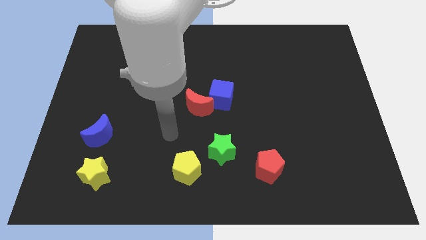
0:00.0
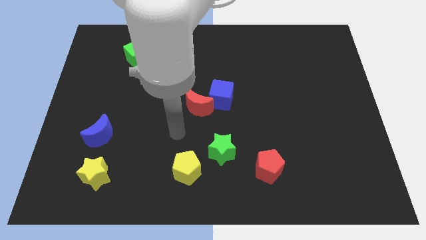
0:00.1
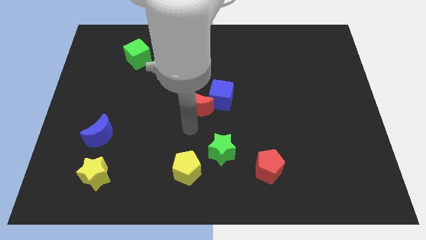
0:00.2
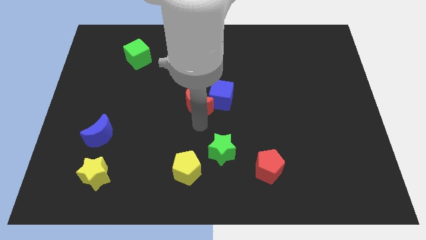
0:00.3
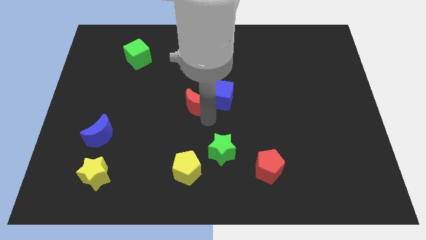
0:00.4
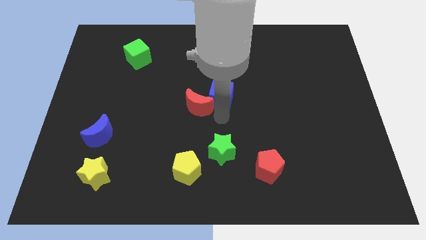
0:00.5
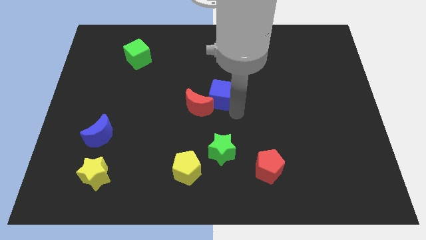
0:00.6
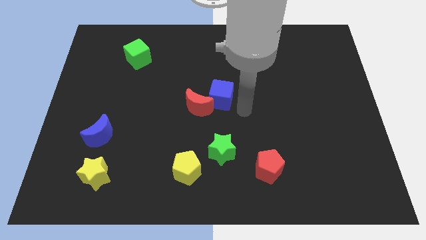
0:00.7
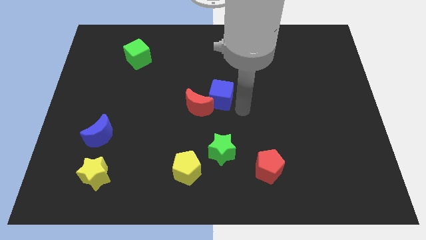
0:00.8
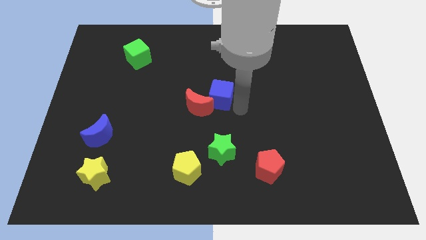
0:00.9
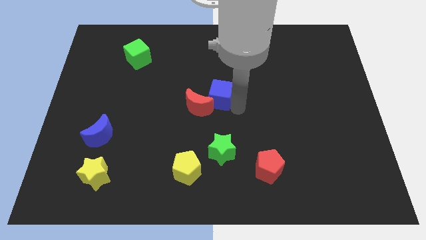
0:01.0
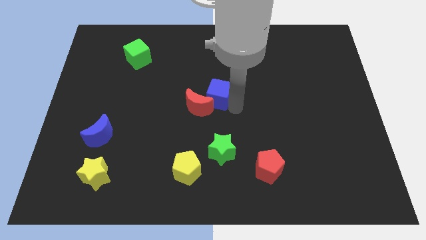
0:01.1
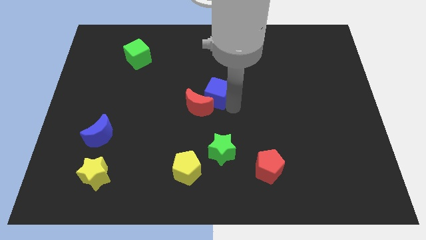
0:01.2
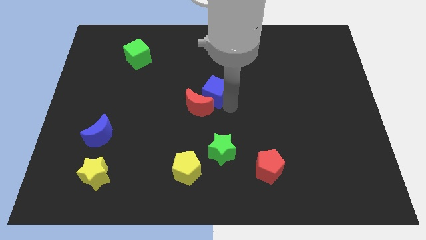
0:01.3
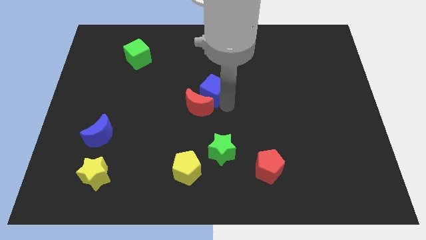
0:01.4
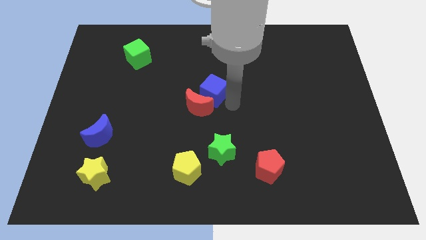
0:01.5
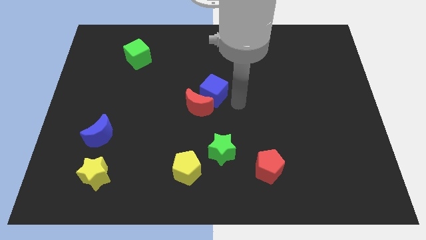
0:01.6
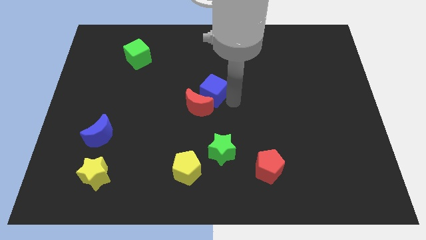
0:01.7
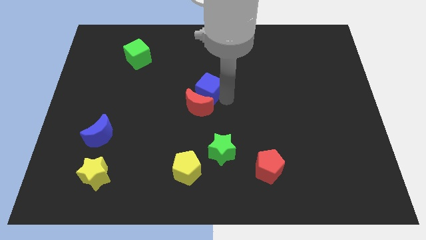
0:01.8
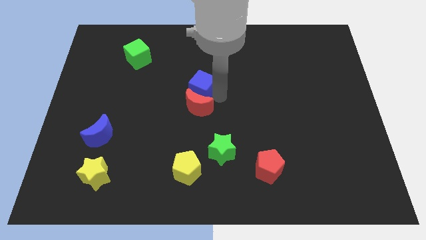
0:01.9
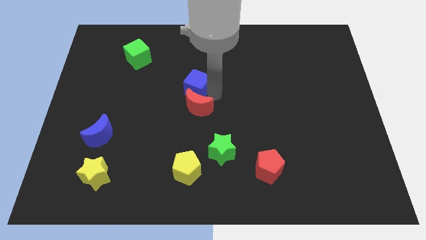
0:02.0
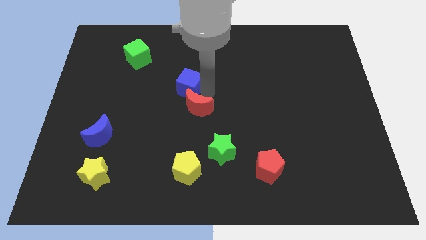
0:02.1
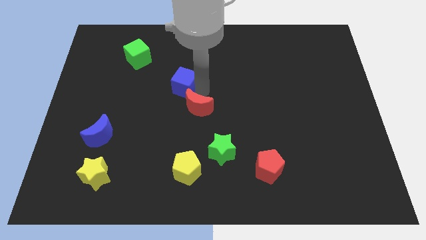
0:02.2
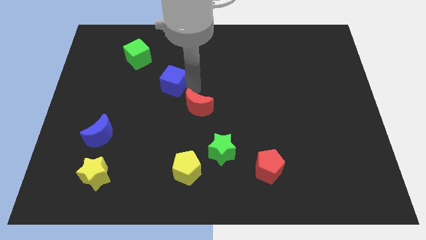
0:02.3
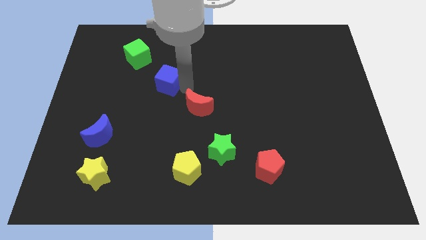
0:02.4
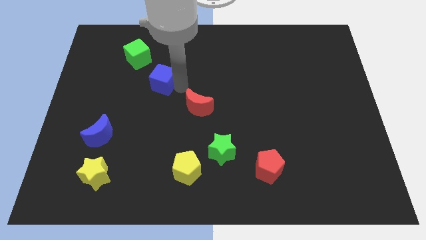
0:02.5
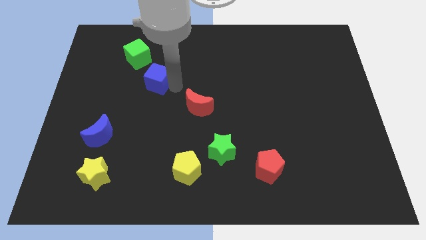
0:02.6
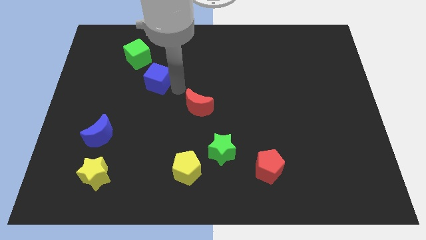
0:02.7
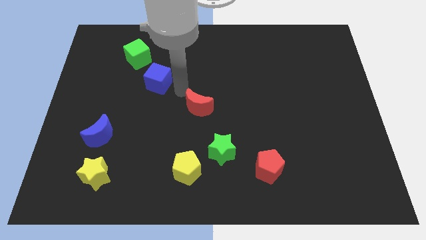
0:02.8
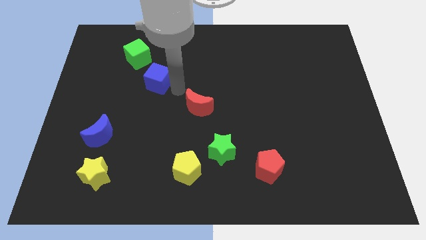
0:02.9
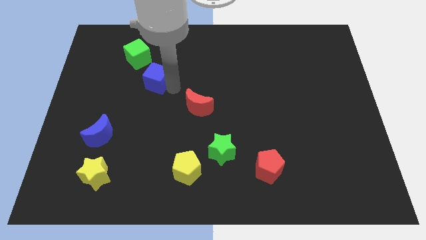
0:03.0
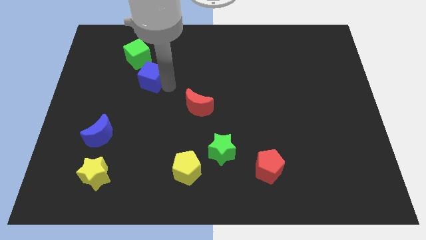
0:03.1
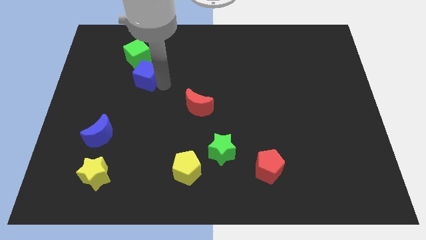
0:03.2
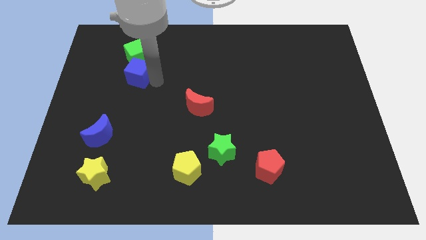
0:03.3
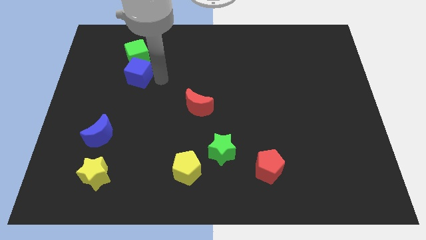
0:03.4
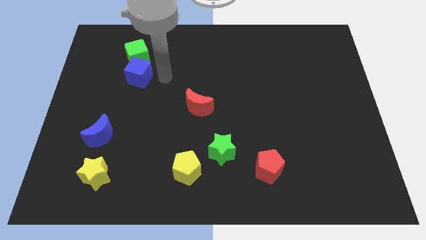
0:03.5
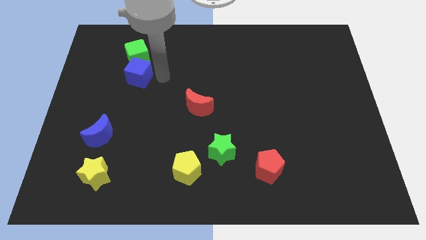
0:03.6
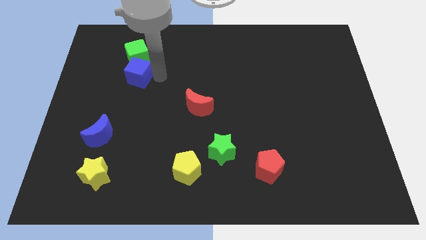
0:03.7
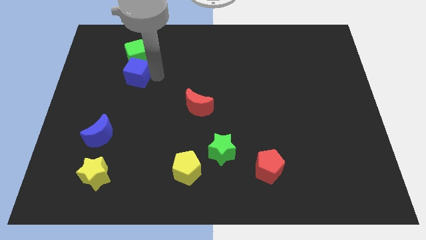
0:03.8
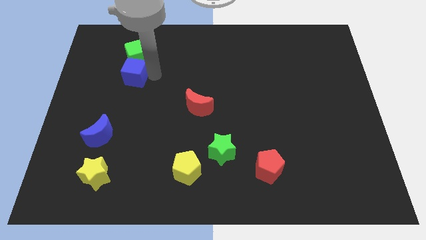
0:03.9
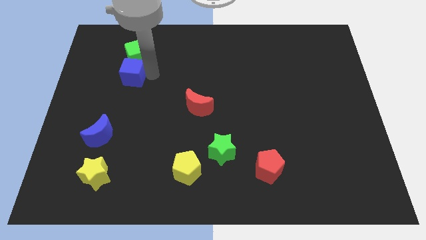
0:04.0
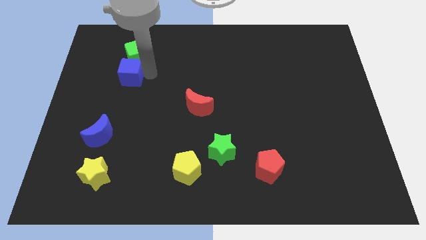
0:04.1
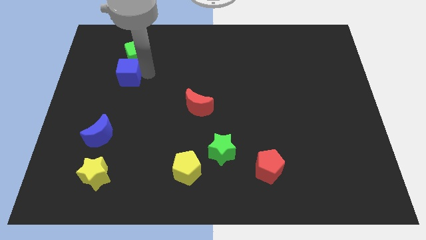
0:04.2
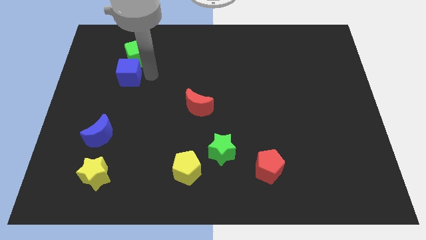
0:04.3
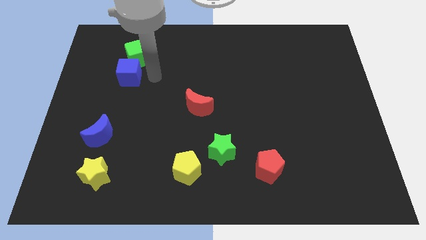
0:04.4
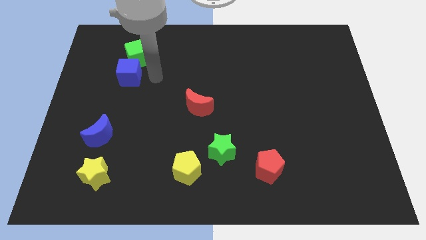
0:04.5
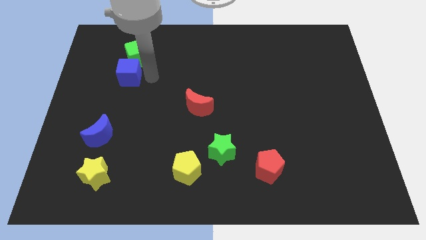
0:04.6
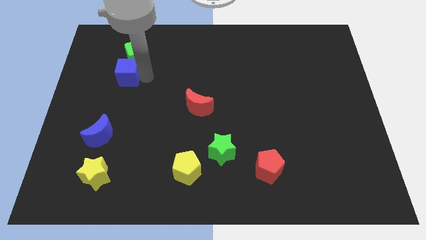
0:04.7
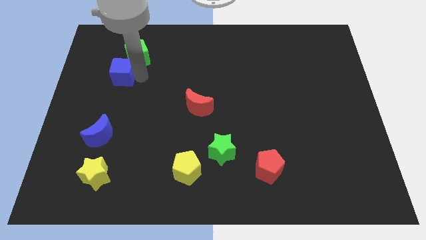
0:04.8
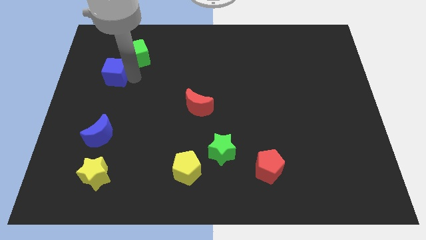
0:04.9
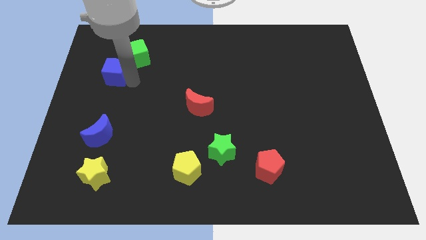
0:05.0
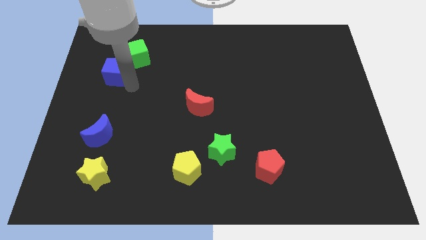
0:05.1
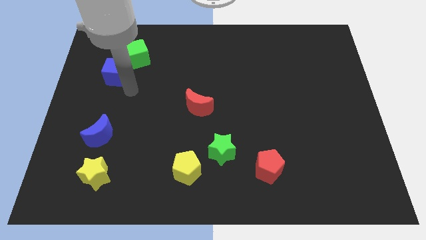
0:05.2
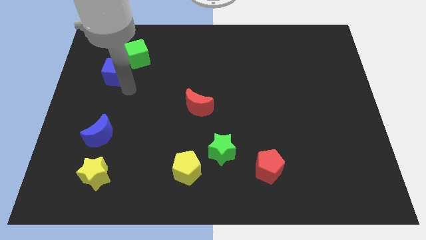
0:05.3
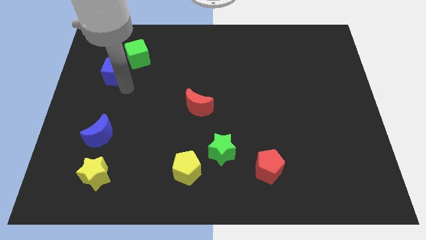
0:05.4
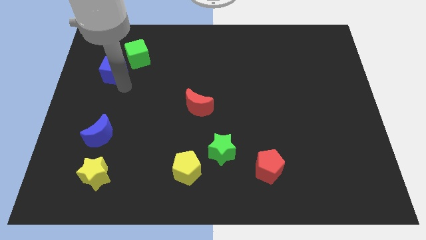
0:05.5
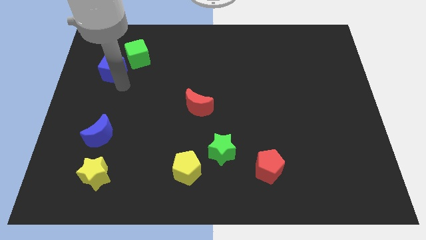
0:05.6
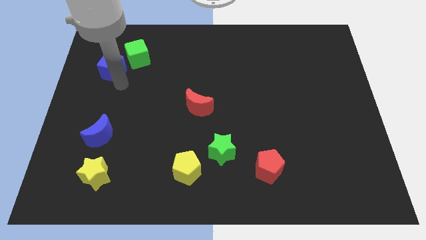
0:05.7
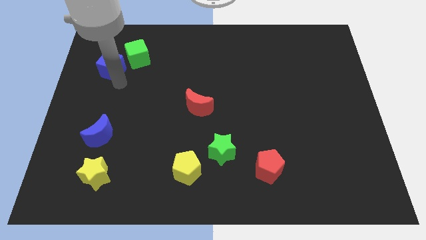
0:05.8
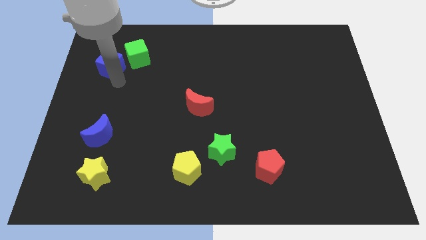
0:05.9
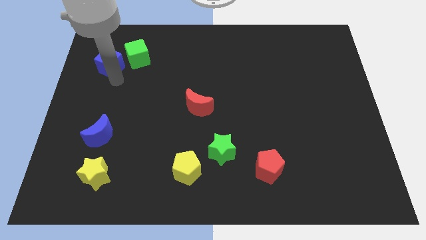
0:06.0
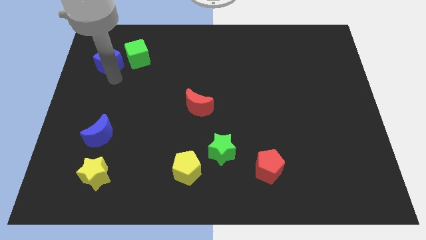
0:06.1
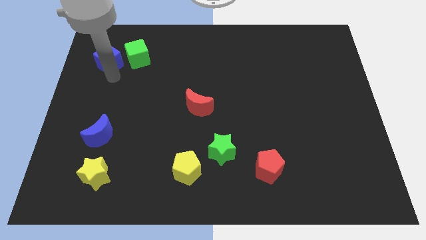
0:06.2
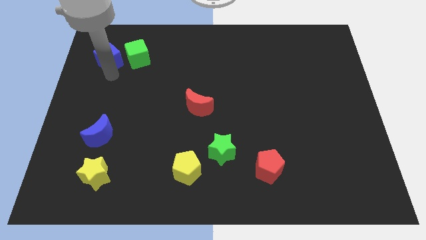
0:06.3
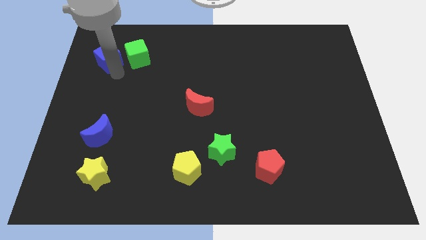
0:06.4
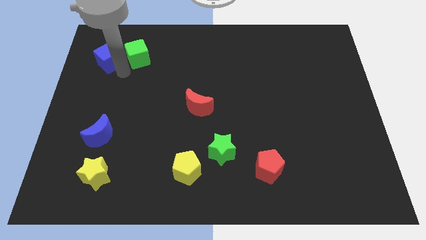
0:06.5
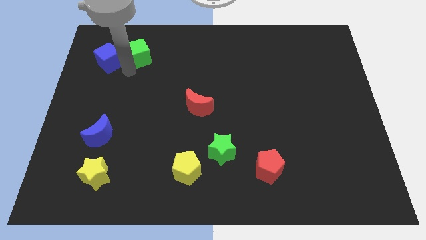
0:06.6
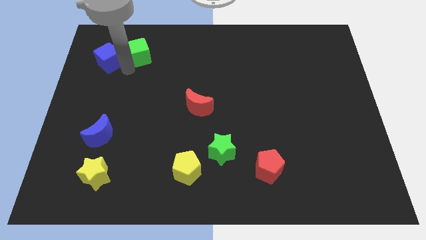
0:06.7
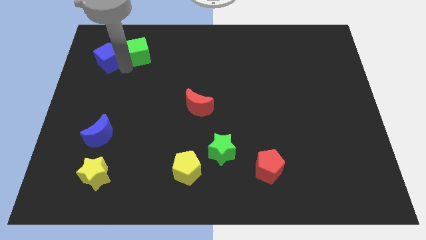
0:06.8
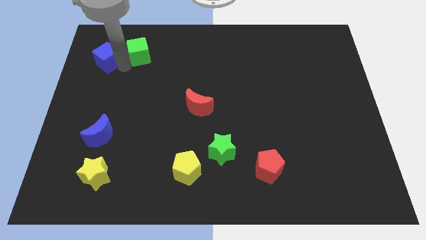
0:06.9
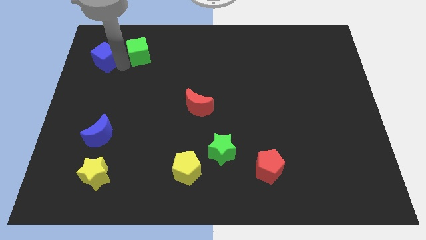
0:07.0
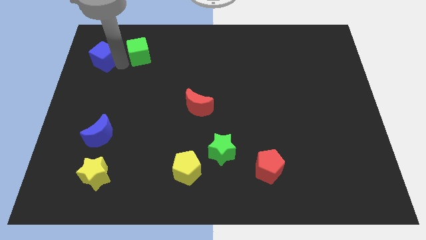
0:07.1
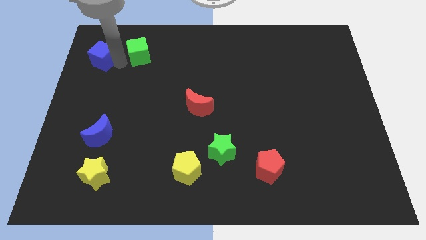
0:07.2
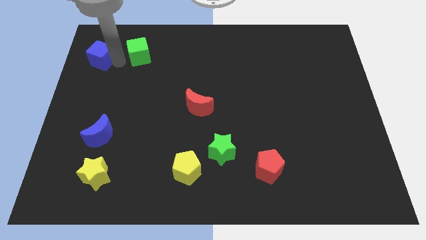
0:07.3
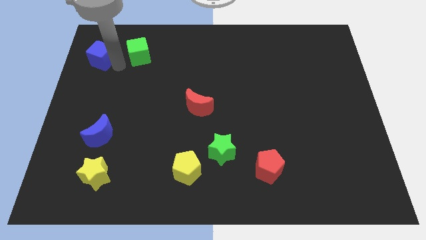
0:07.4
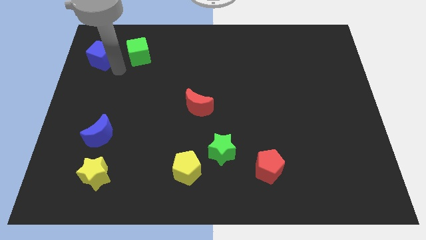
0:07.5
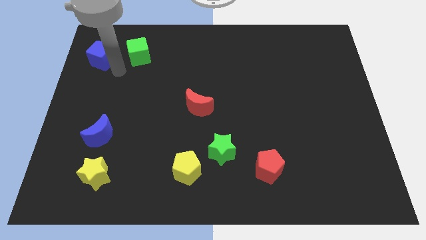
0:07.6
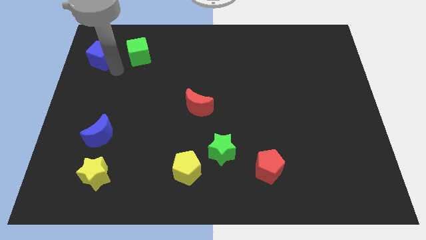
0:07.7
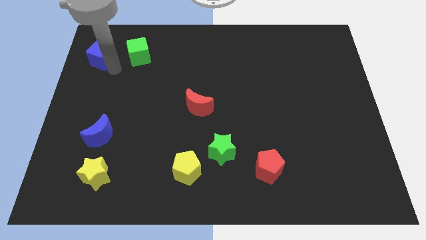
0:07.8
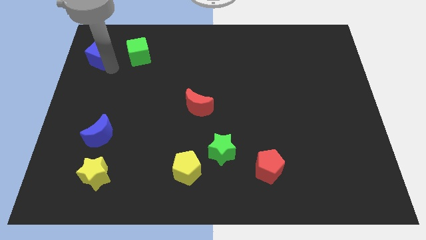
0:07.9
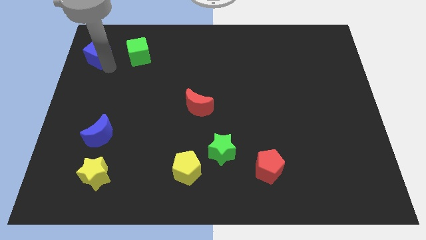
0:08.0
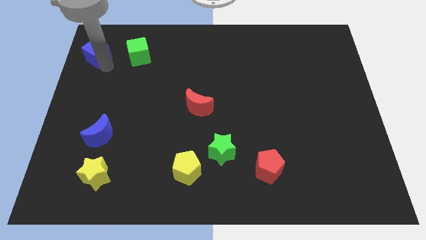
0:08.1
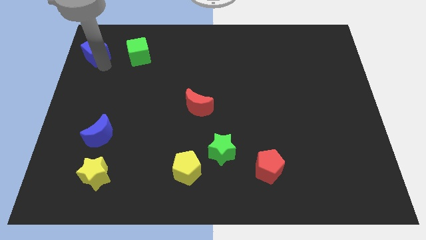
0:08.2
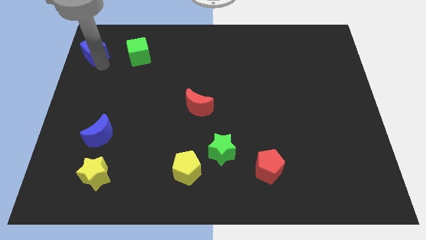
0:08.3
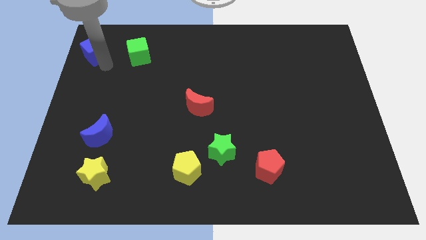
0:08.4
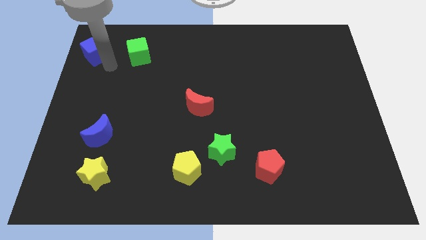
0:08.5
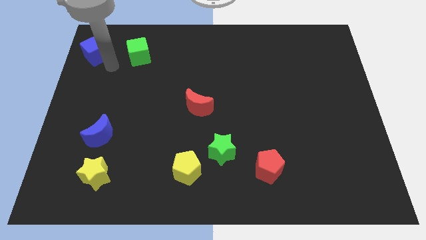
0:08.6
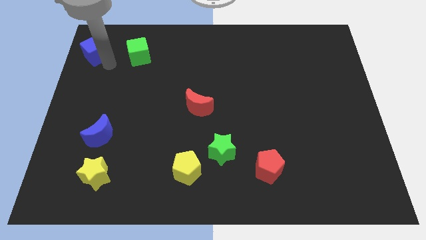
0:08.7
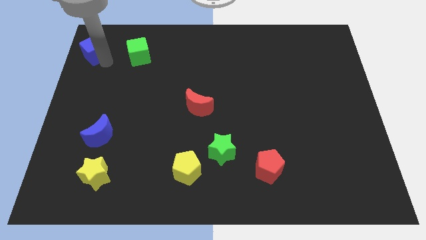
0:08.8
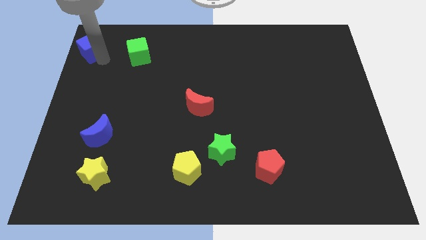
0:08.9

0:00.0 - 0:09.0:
put the blue cube to the top left corner
